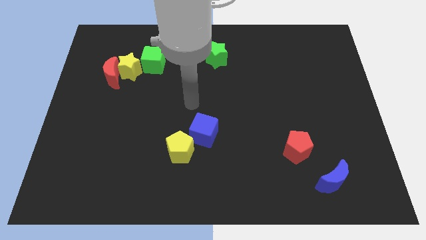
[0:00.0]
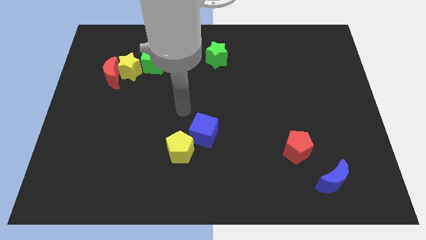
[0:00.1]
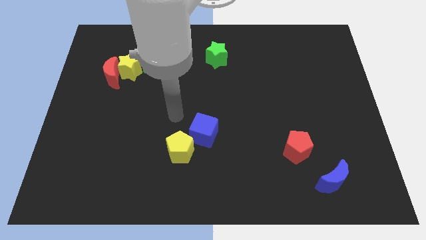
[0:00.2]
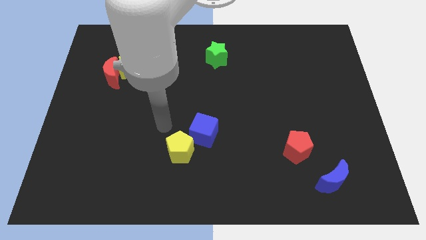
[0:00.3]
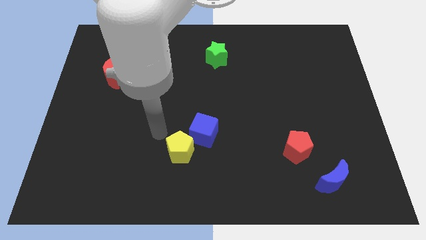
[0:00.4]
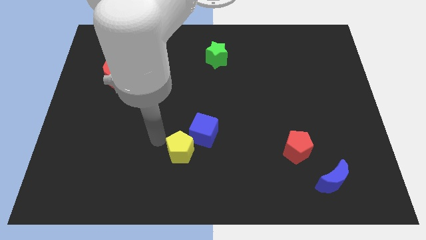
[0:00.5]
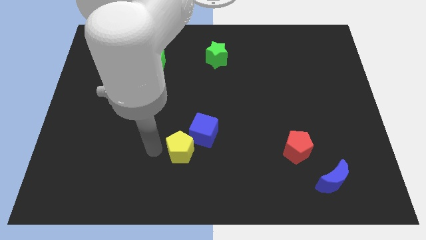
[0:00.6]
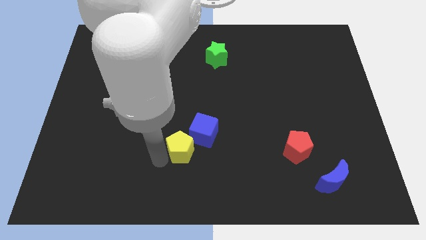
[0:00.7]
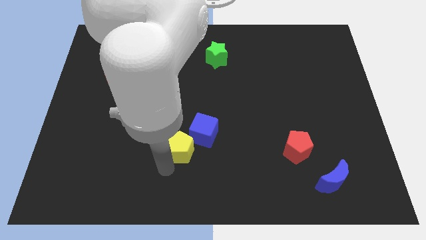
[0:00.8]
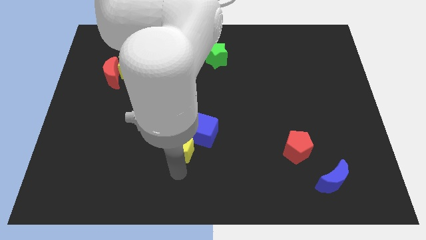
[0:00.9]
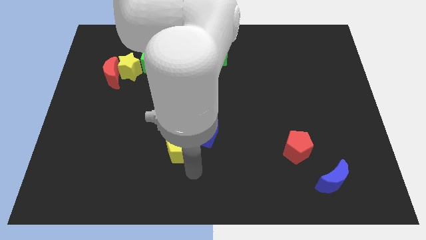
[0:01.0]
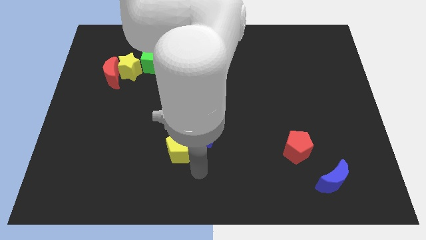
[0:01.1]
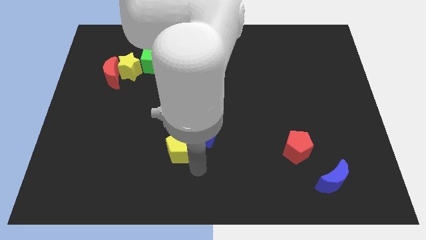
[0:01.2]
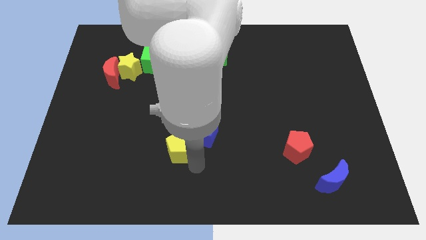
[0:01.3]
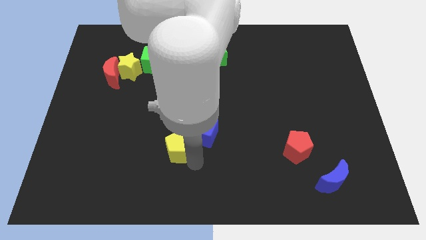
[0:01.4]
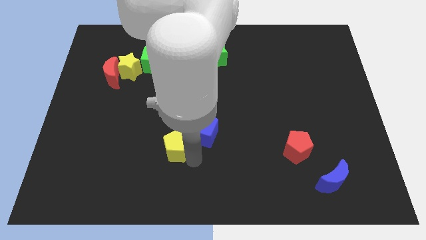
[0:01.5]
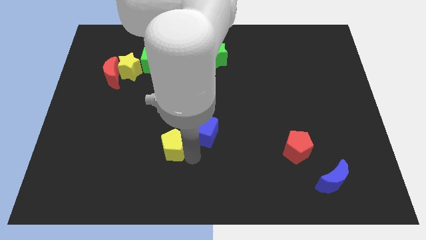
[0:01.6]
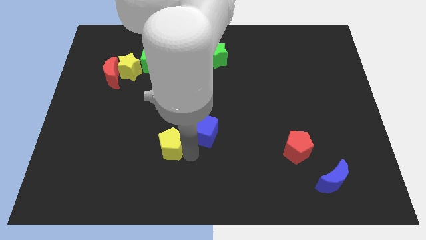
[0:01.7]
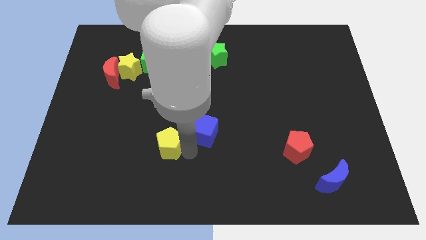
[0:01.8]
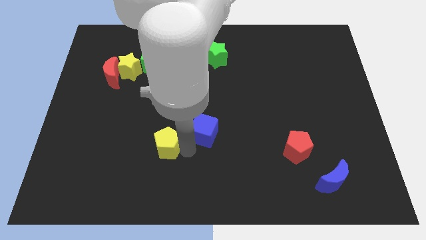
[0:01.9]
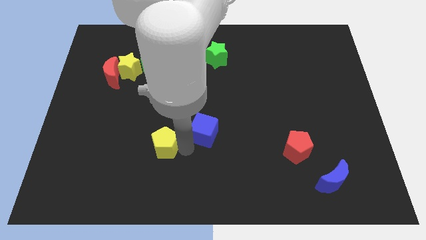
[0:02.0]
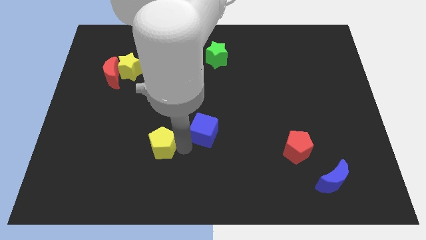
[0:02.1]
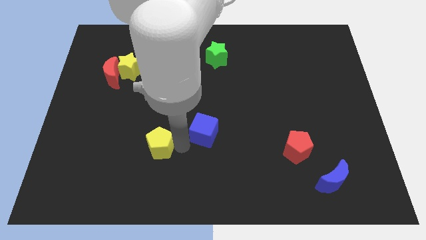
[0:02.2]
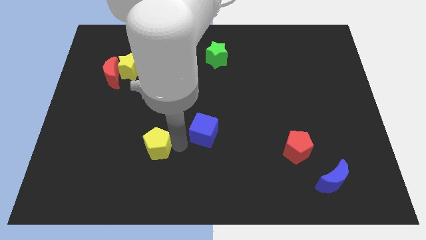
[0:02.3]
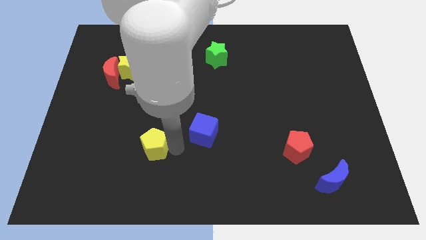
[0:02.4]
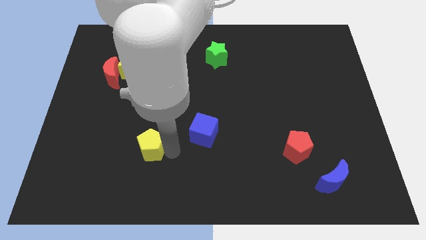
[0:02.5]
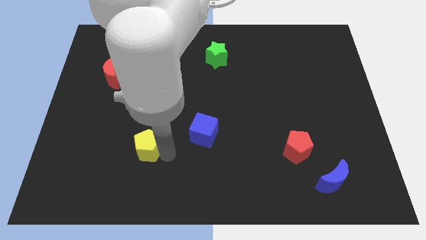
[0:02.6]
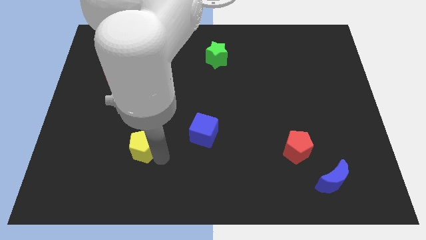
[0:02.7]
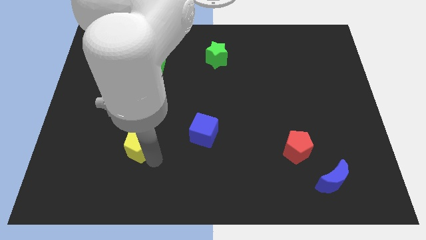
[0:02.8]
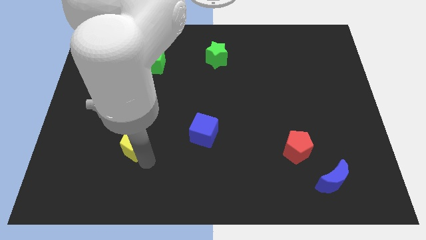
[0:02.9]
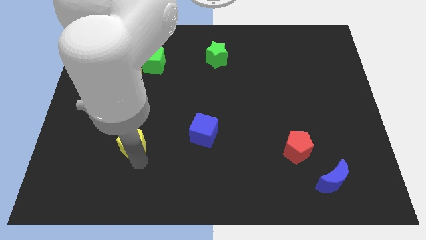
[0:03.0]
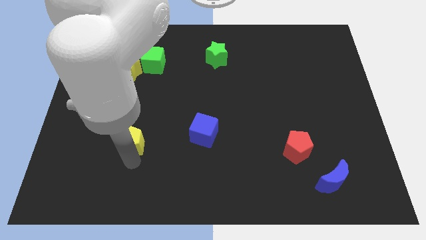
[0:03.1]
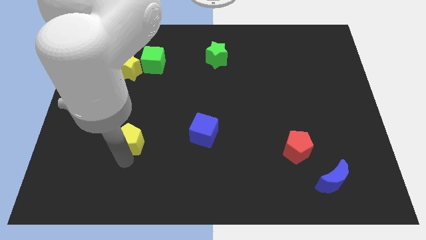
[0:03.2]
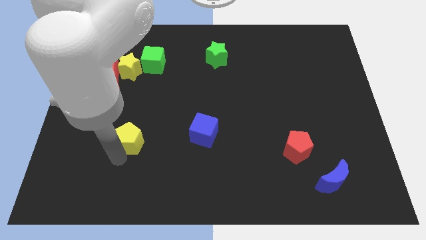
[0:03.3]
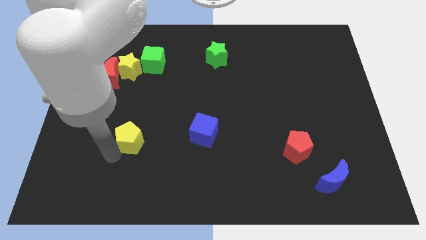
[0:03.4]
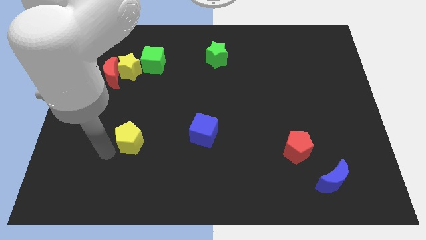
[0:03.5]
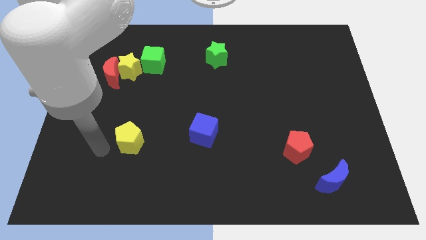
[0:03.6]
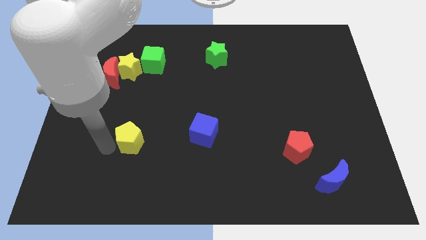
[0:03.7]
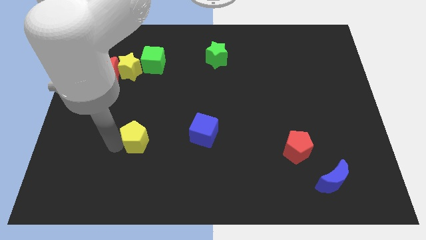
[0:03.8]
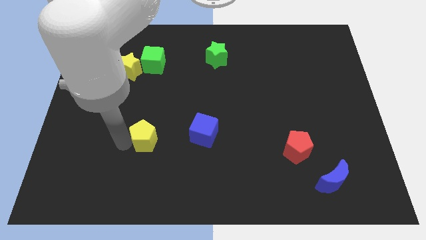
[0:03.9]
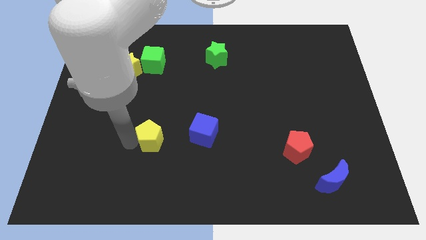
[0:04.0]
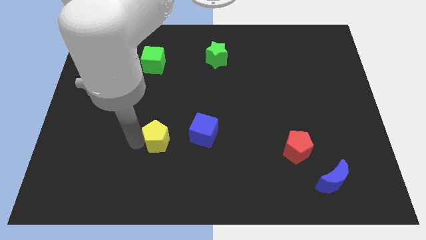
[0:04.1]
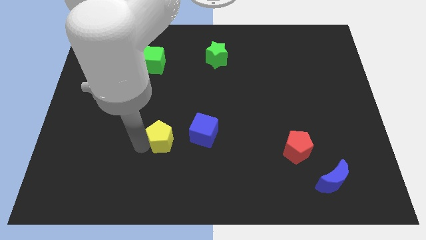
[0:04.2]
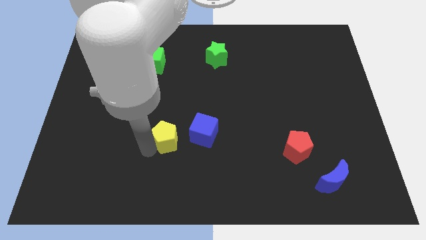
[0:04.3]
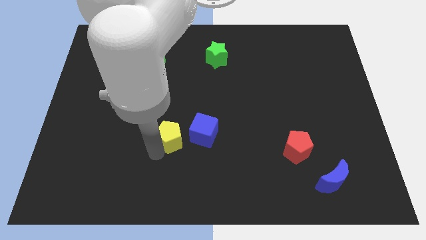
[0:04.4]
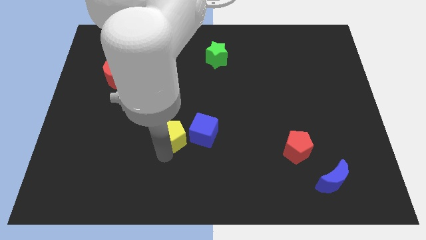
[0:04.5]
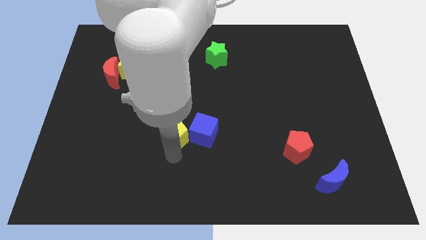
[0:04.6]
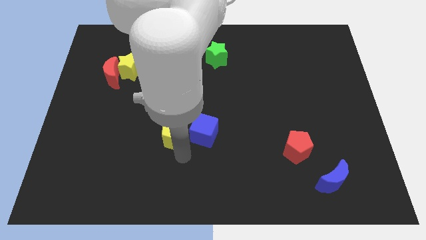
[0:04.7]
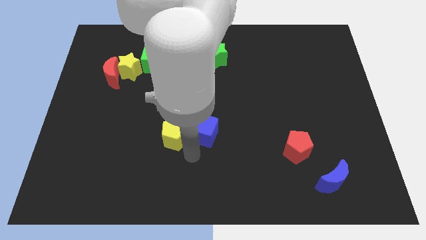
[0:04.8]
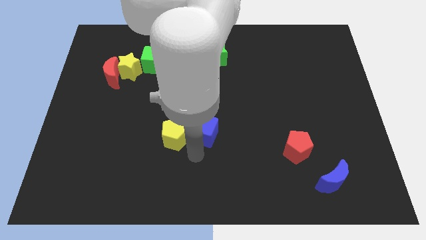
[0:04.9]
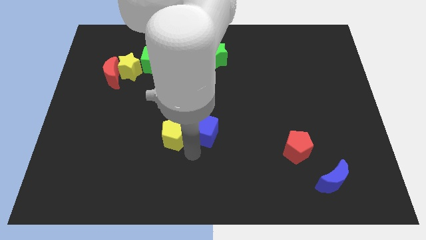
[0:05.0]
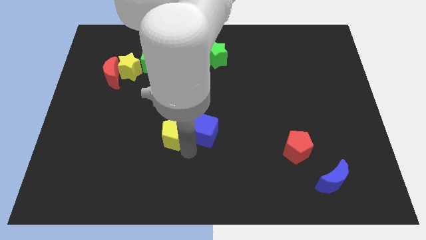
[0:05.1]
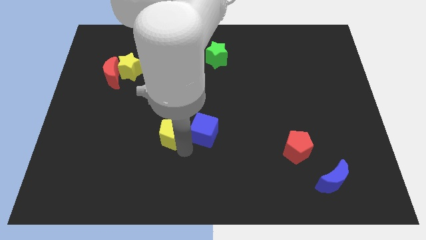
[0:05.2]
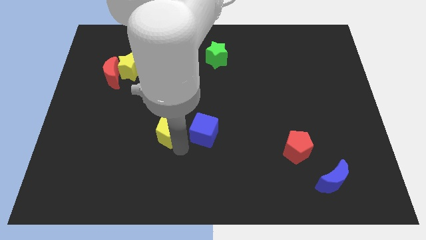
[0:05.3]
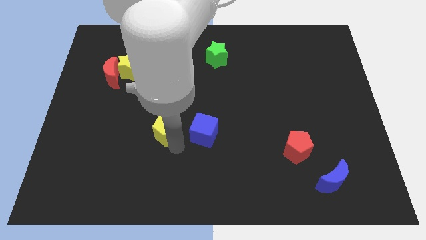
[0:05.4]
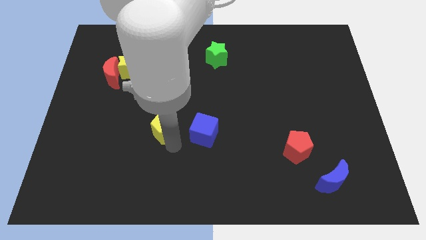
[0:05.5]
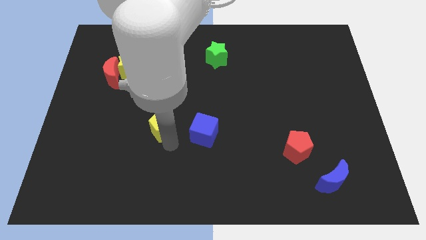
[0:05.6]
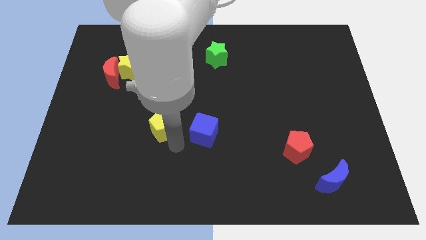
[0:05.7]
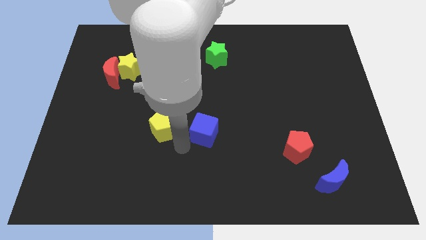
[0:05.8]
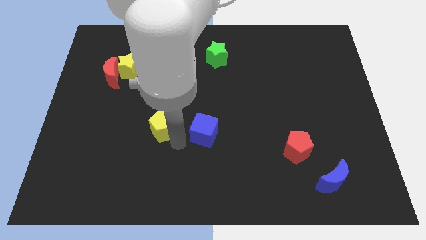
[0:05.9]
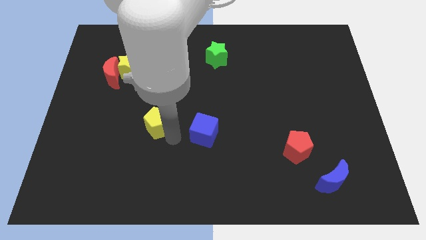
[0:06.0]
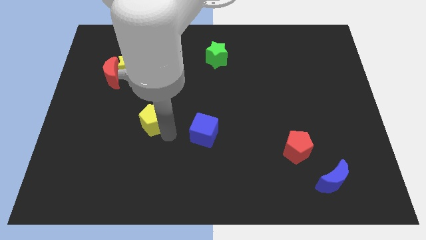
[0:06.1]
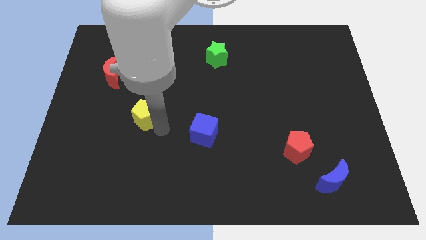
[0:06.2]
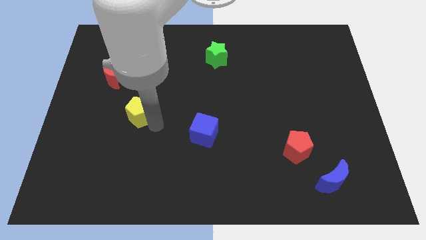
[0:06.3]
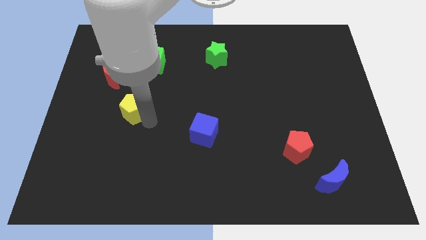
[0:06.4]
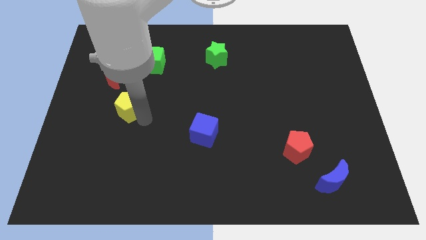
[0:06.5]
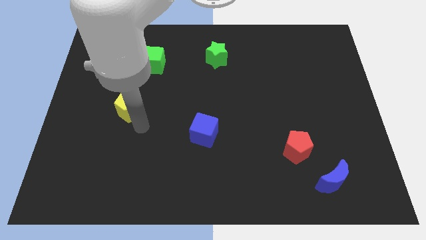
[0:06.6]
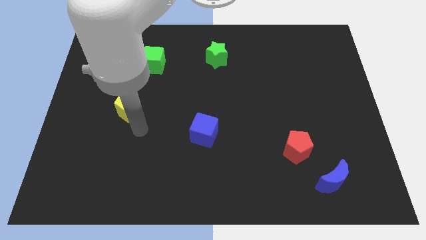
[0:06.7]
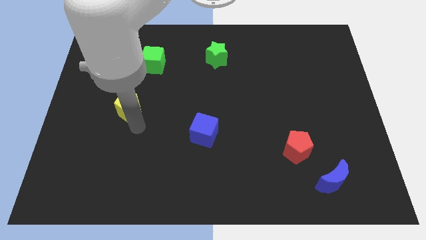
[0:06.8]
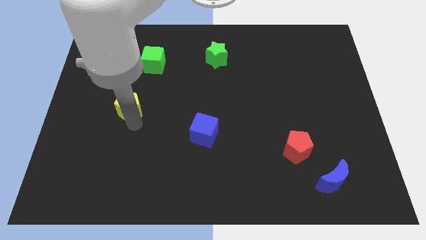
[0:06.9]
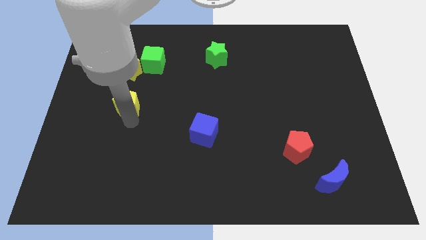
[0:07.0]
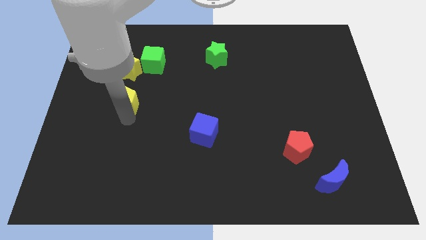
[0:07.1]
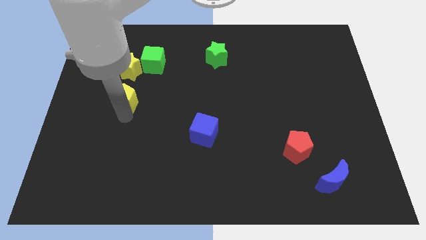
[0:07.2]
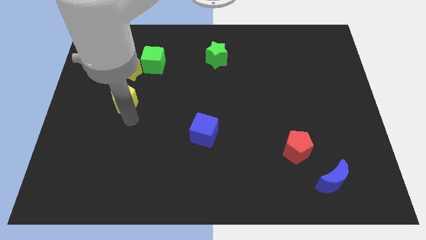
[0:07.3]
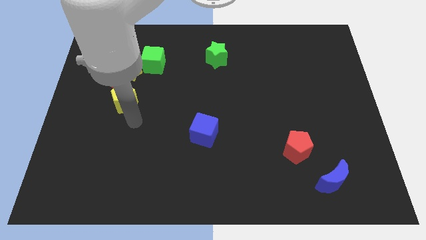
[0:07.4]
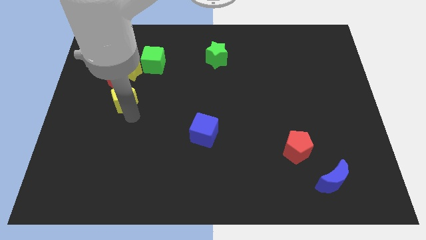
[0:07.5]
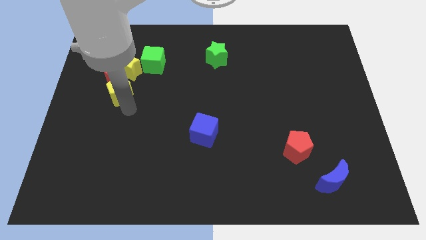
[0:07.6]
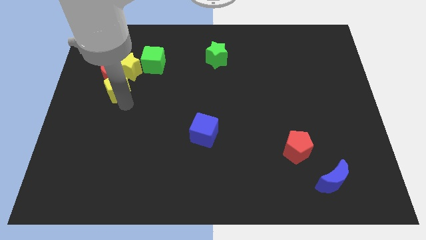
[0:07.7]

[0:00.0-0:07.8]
put the yellow pentagon close to the red moon
